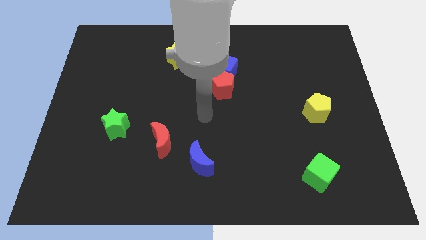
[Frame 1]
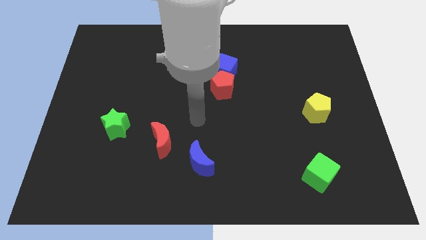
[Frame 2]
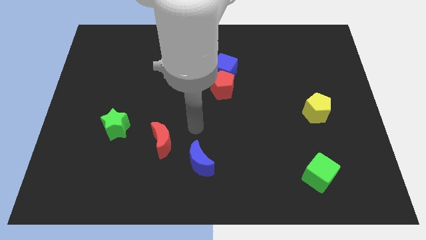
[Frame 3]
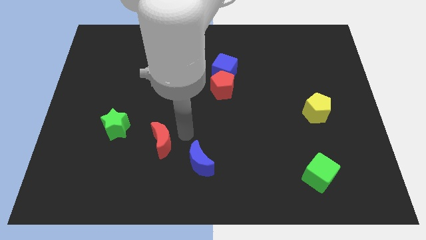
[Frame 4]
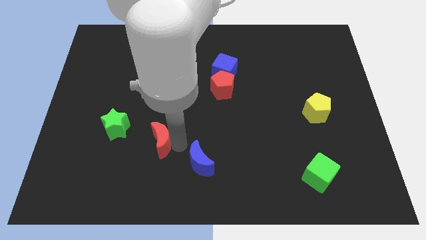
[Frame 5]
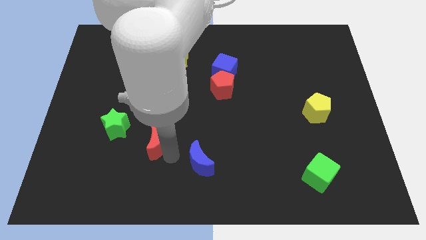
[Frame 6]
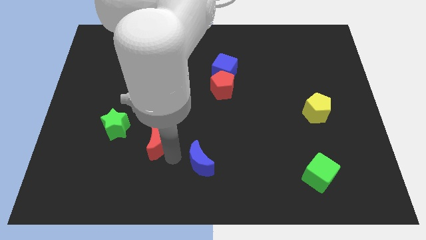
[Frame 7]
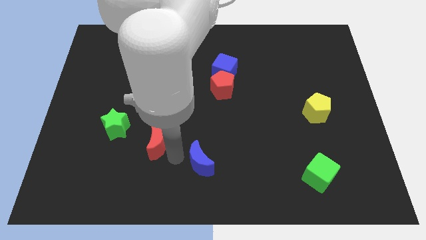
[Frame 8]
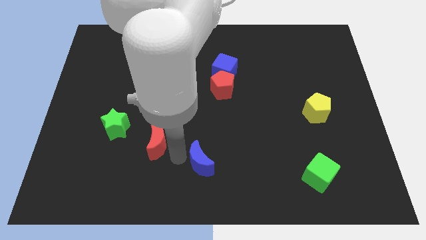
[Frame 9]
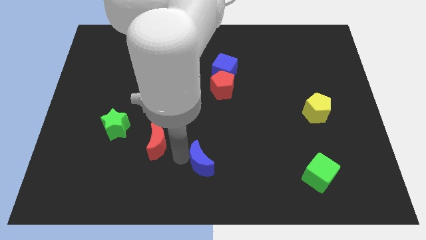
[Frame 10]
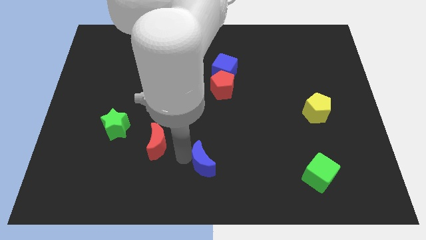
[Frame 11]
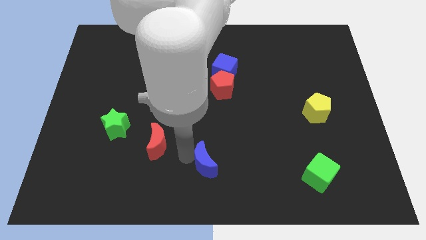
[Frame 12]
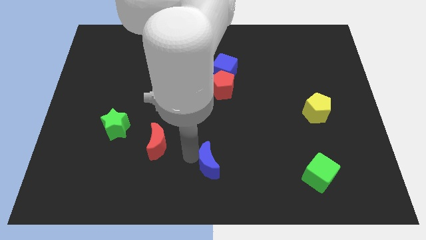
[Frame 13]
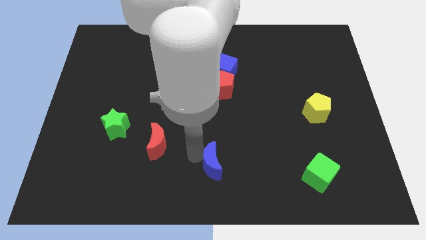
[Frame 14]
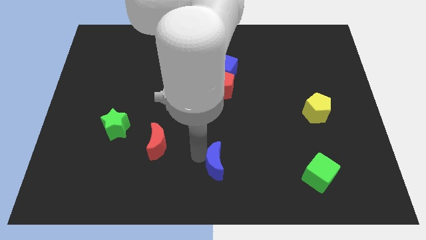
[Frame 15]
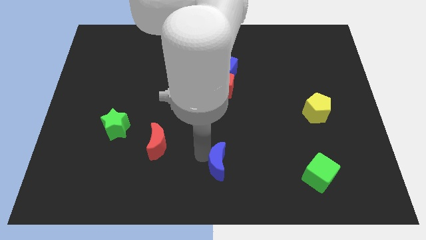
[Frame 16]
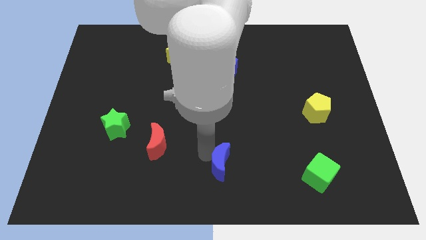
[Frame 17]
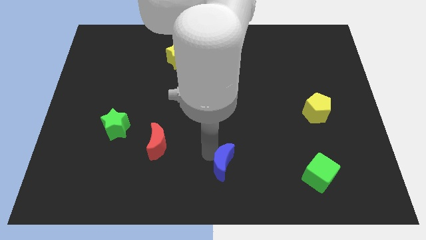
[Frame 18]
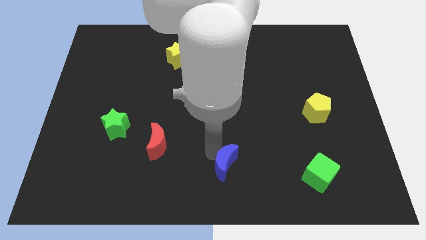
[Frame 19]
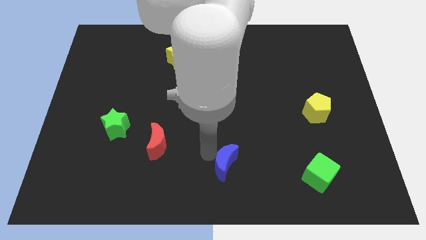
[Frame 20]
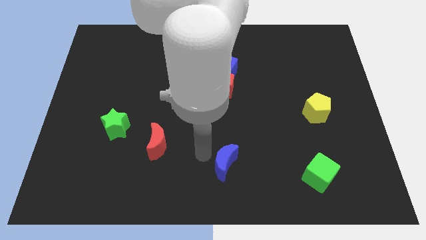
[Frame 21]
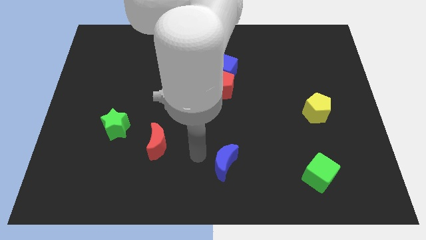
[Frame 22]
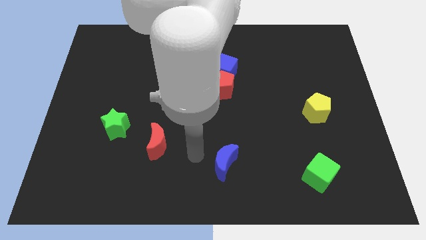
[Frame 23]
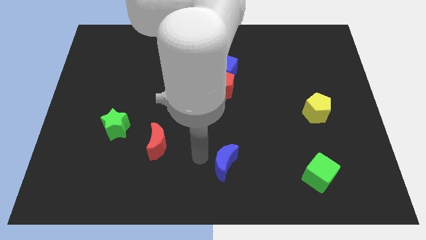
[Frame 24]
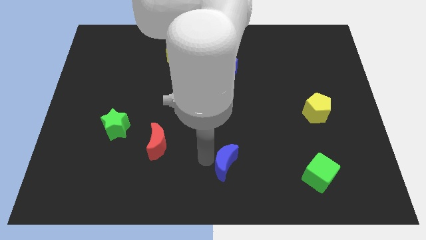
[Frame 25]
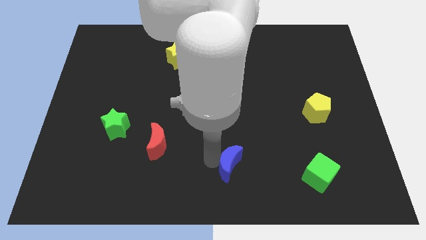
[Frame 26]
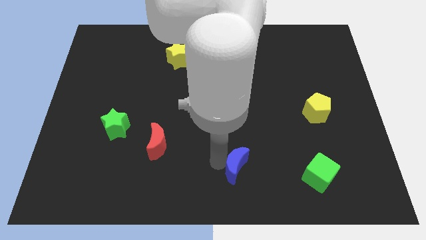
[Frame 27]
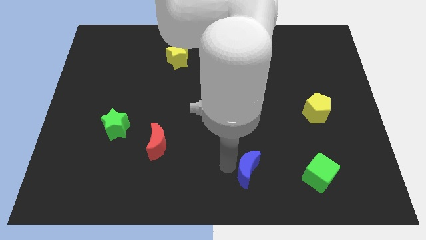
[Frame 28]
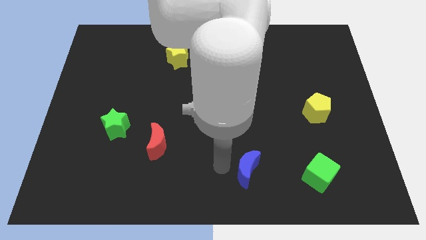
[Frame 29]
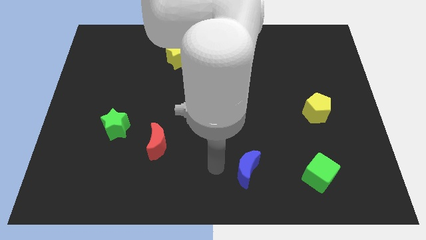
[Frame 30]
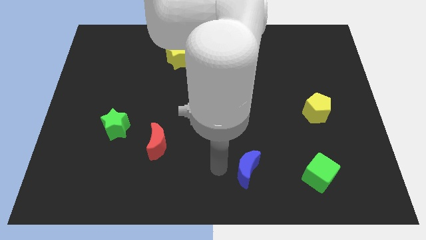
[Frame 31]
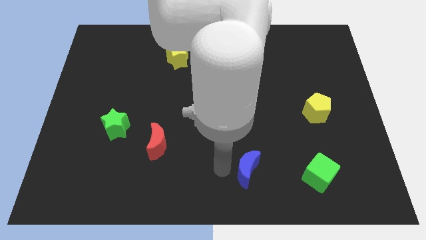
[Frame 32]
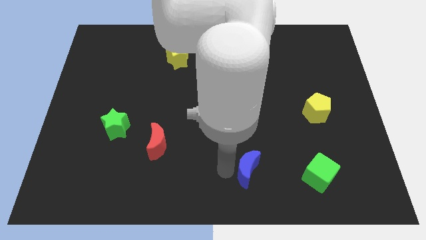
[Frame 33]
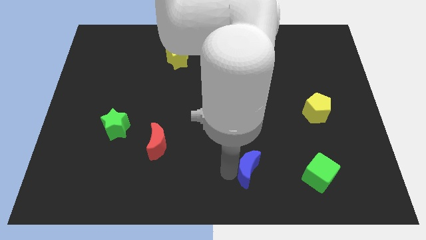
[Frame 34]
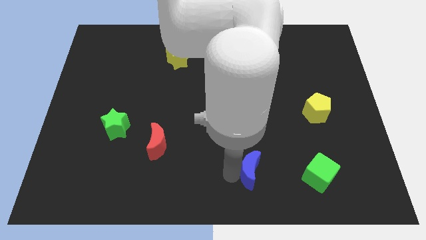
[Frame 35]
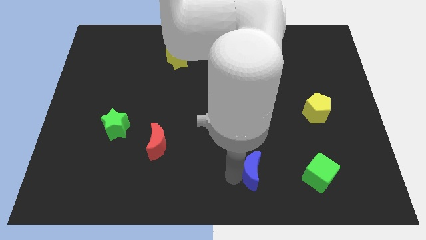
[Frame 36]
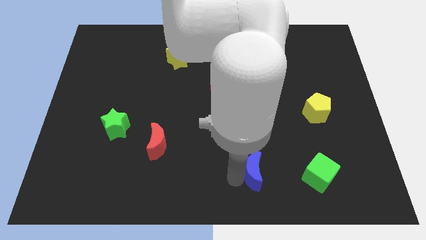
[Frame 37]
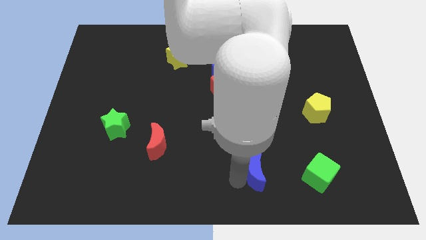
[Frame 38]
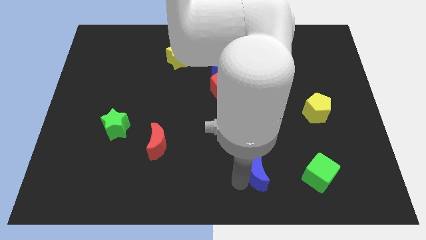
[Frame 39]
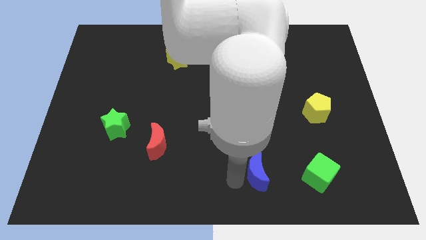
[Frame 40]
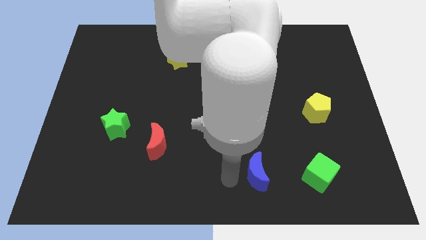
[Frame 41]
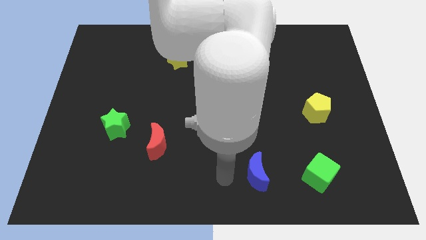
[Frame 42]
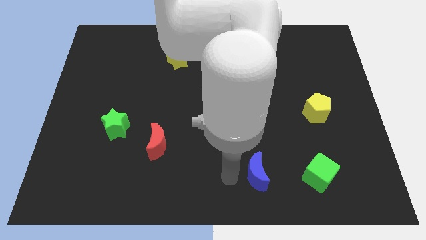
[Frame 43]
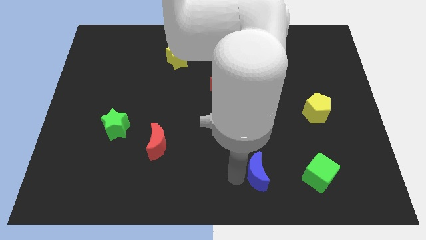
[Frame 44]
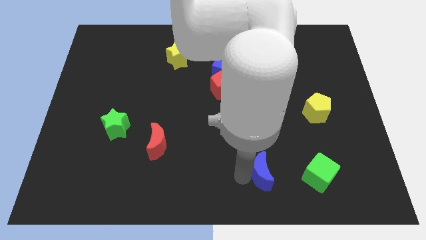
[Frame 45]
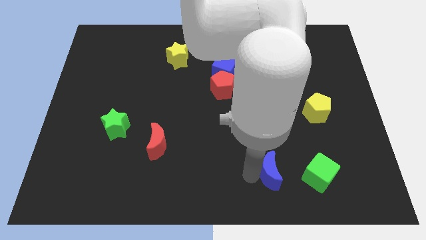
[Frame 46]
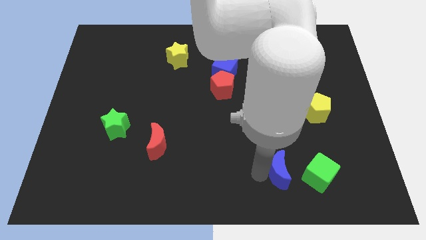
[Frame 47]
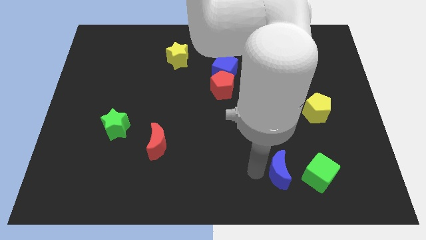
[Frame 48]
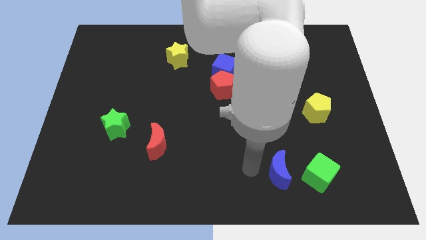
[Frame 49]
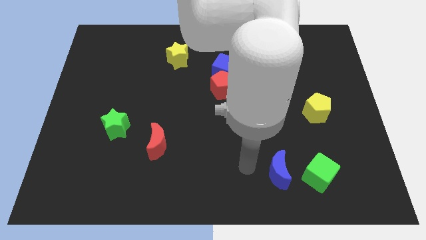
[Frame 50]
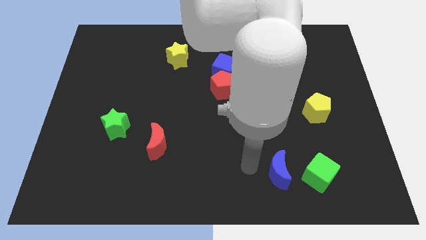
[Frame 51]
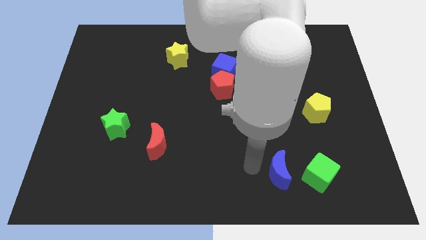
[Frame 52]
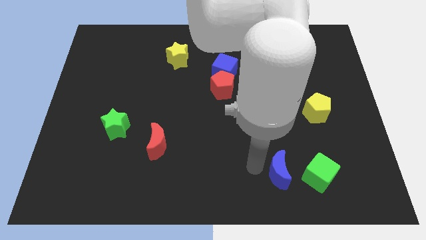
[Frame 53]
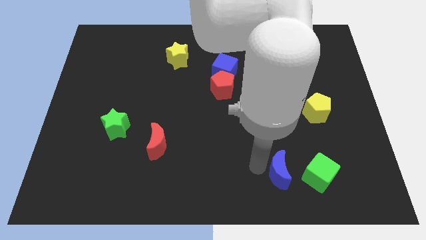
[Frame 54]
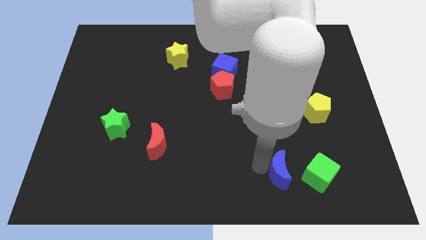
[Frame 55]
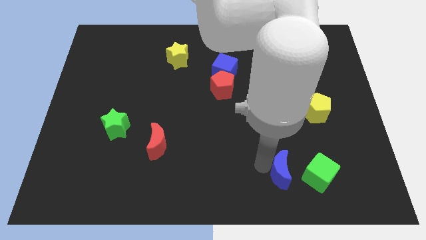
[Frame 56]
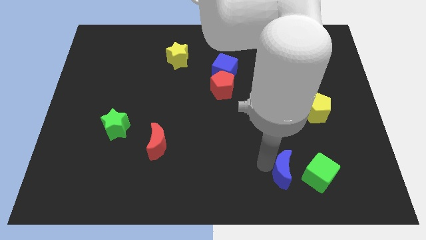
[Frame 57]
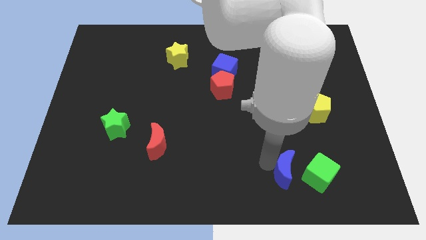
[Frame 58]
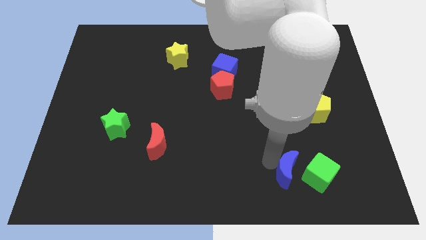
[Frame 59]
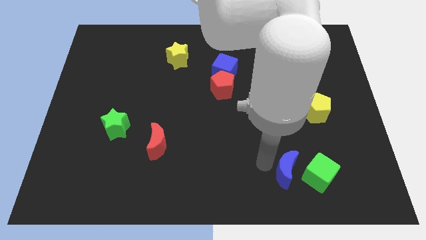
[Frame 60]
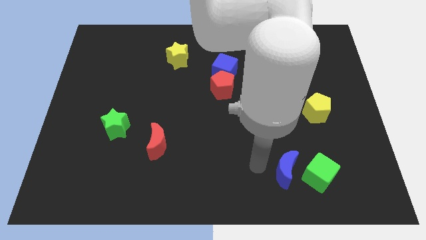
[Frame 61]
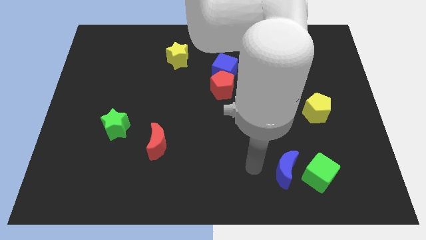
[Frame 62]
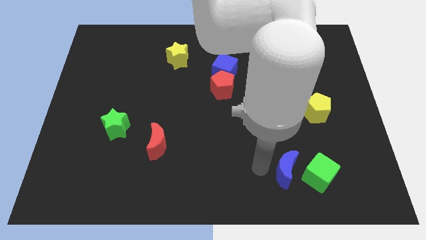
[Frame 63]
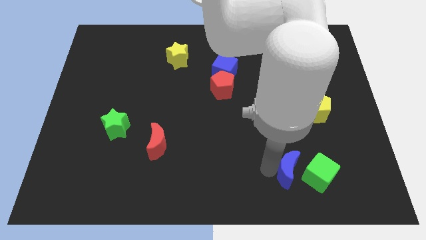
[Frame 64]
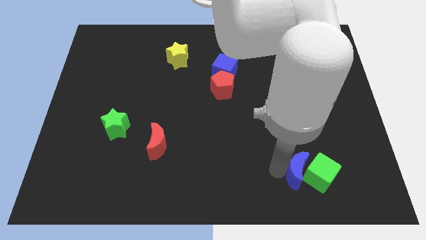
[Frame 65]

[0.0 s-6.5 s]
move the blue moon to the green cube

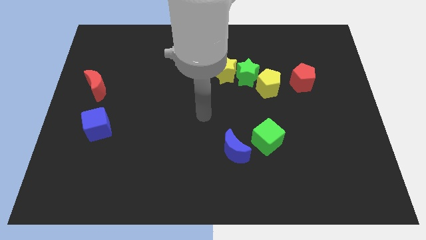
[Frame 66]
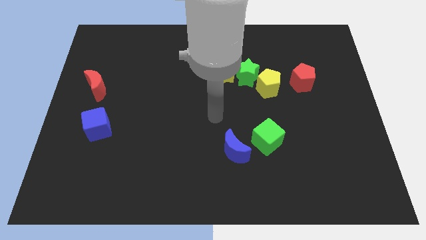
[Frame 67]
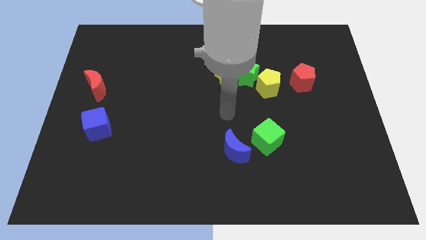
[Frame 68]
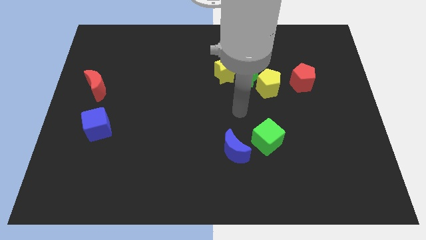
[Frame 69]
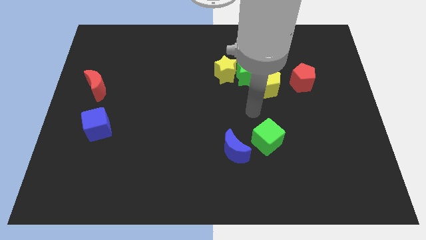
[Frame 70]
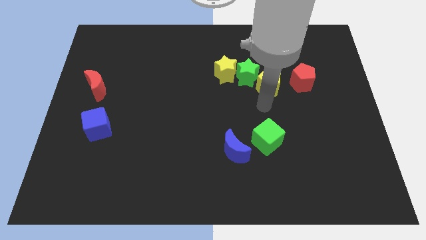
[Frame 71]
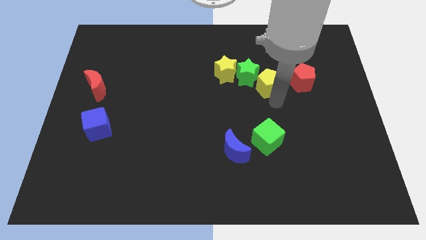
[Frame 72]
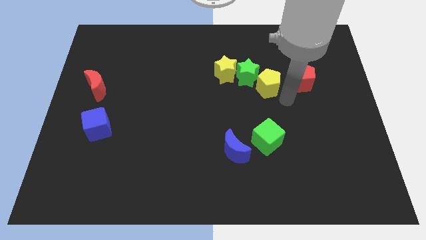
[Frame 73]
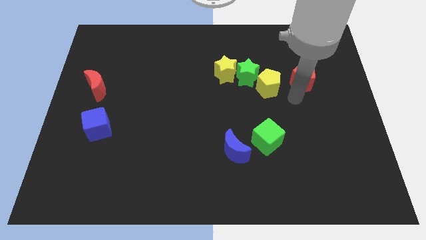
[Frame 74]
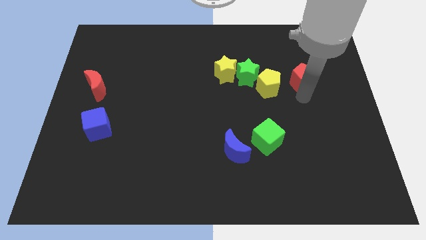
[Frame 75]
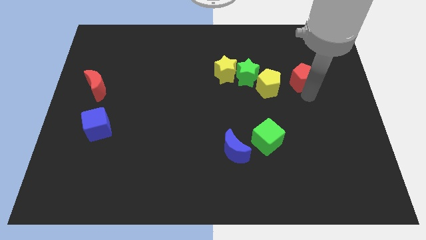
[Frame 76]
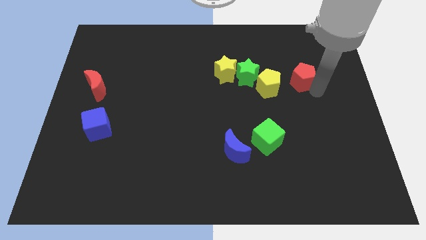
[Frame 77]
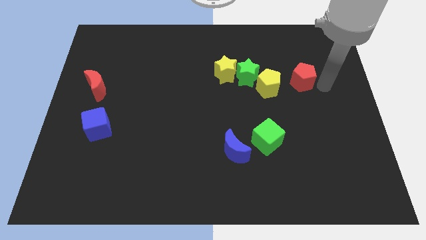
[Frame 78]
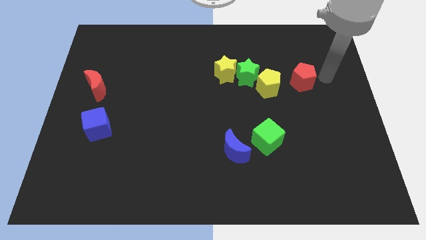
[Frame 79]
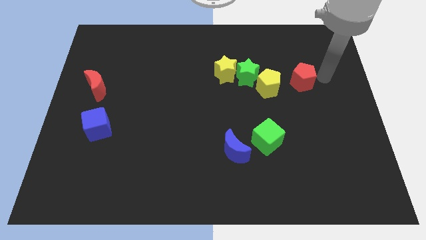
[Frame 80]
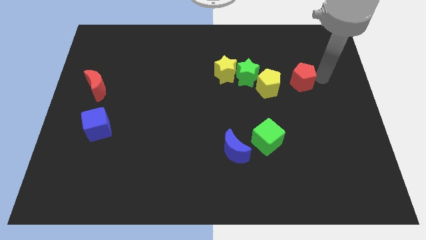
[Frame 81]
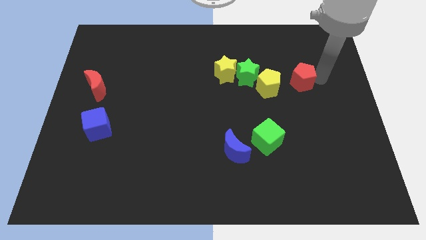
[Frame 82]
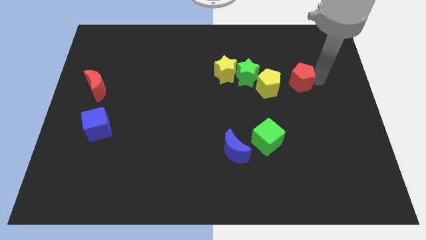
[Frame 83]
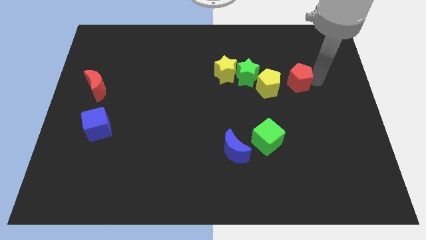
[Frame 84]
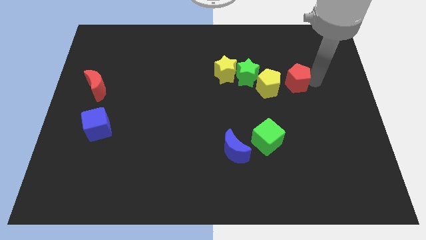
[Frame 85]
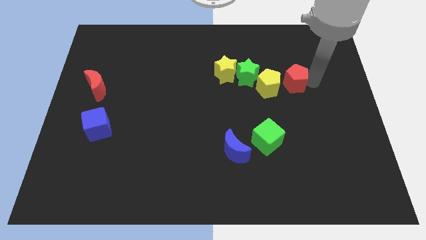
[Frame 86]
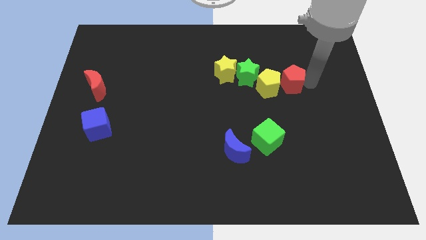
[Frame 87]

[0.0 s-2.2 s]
push the red pentagon towards the yellow pentagon
